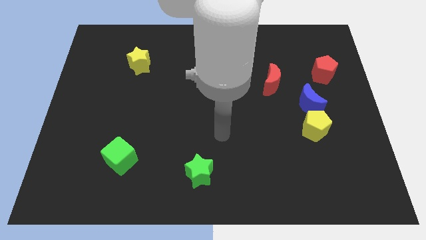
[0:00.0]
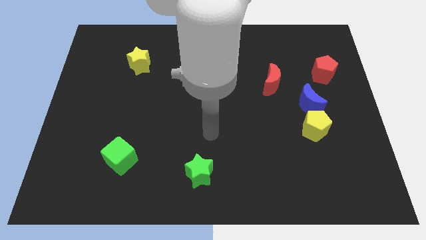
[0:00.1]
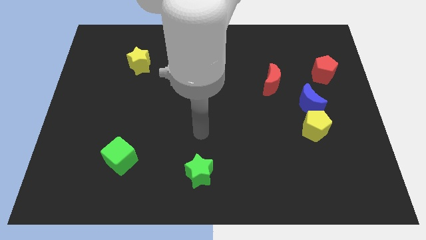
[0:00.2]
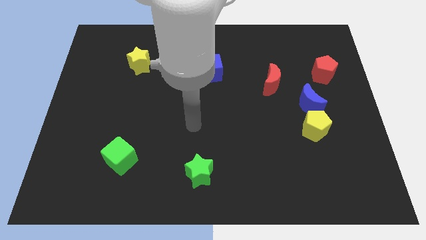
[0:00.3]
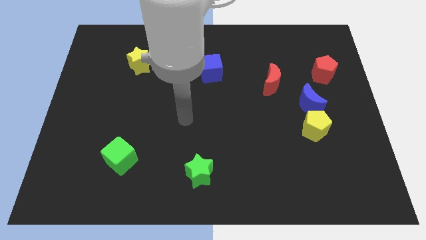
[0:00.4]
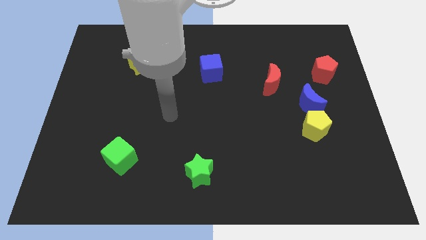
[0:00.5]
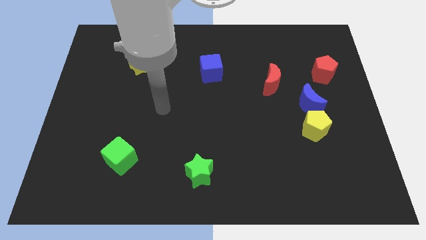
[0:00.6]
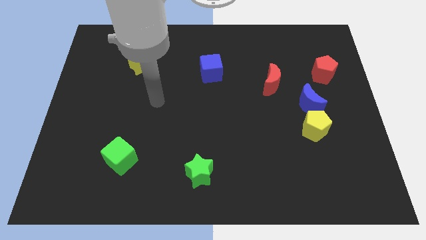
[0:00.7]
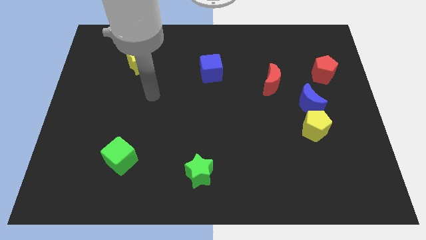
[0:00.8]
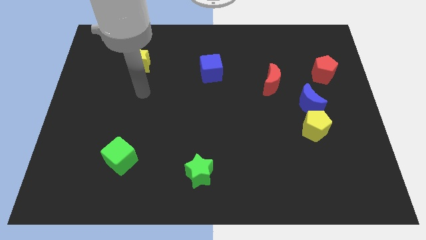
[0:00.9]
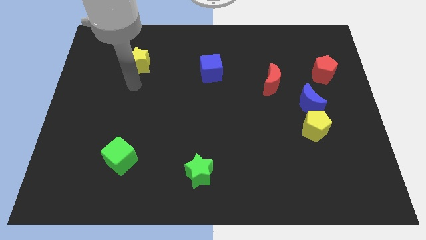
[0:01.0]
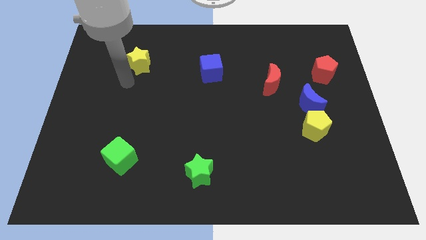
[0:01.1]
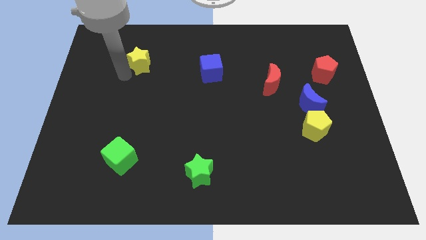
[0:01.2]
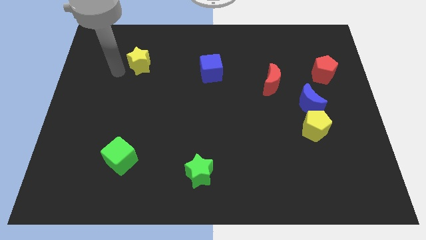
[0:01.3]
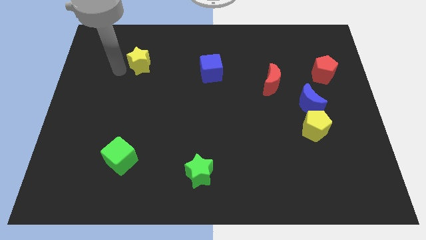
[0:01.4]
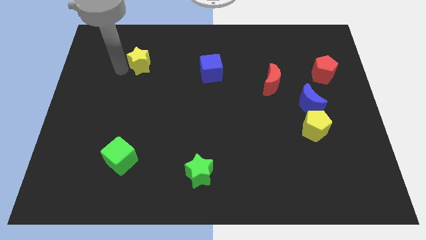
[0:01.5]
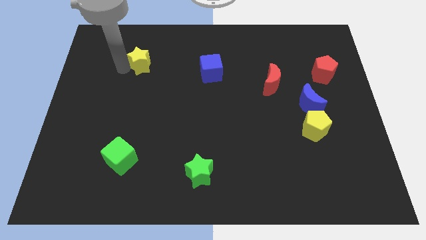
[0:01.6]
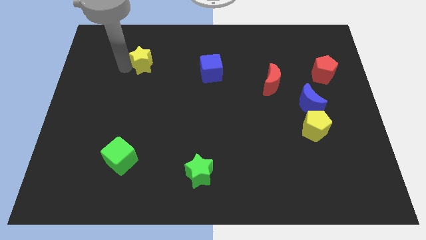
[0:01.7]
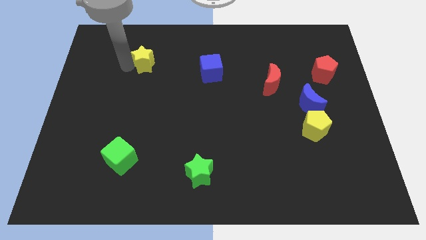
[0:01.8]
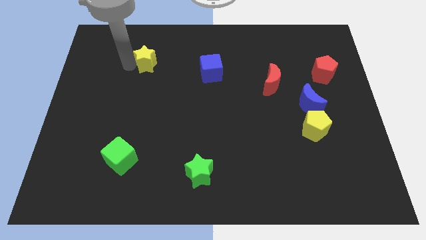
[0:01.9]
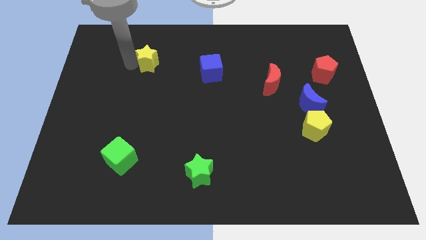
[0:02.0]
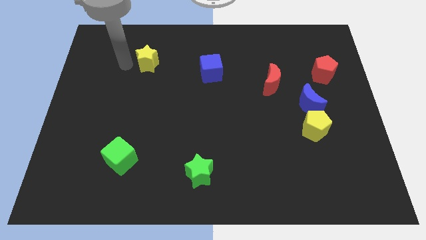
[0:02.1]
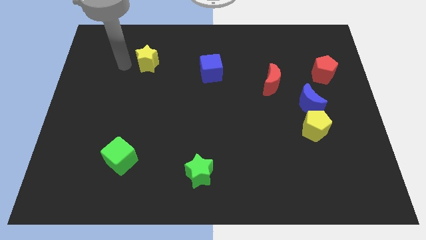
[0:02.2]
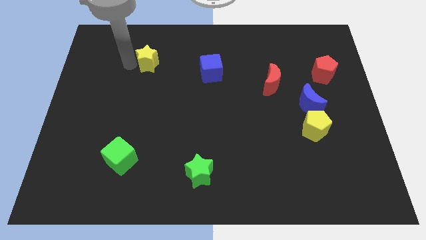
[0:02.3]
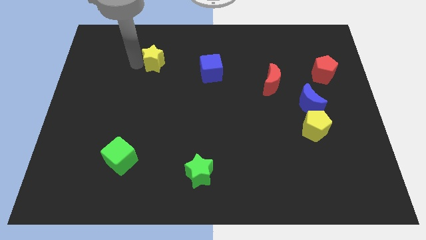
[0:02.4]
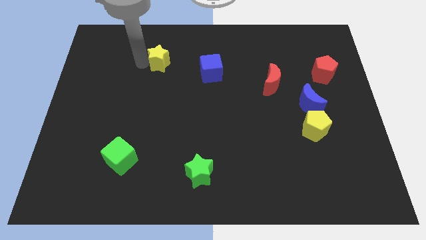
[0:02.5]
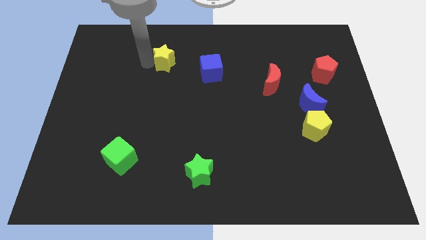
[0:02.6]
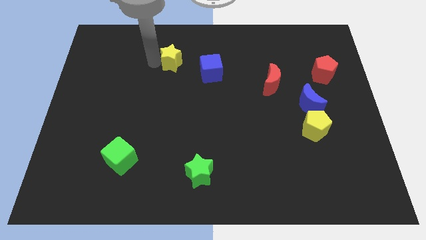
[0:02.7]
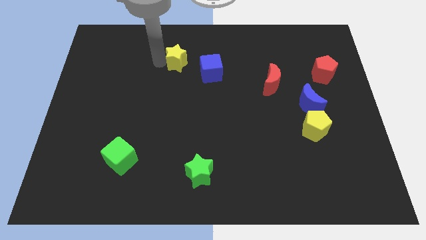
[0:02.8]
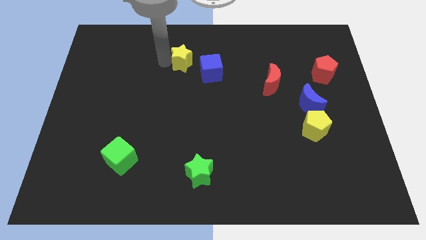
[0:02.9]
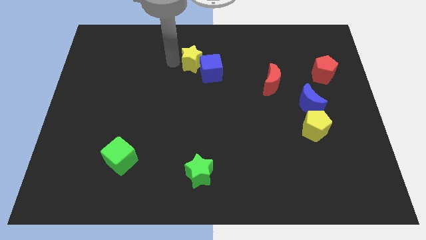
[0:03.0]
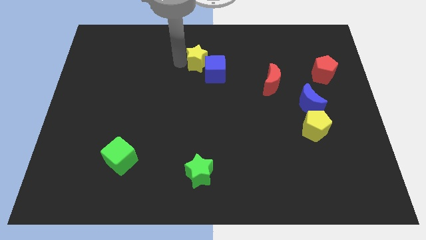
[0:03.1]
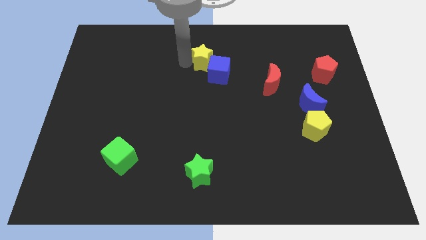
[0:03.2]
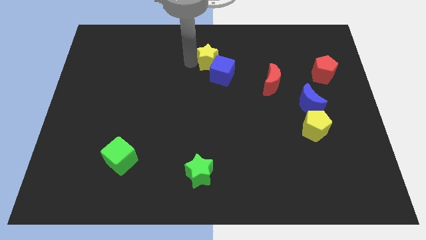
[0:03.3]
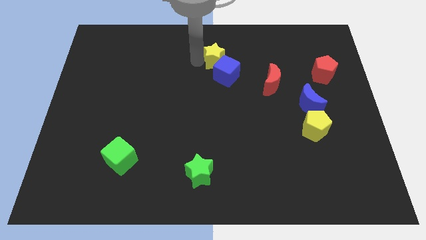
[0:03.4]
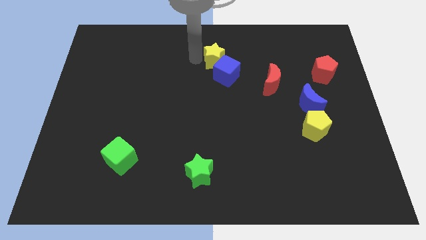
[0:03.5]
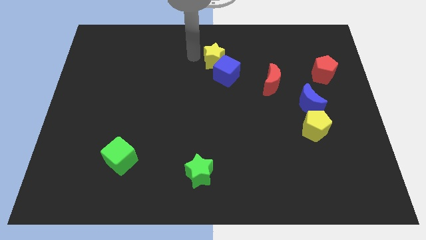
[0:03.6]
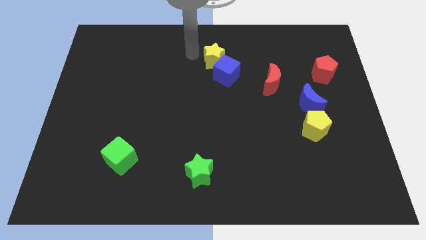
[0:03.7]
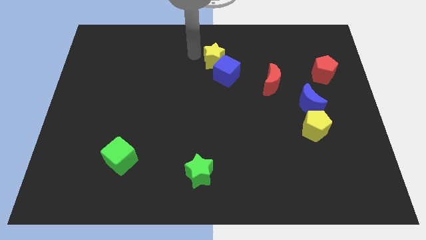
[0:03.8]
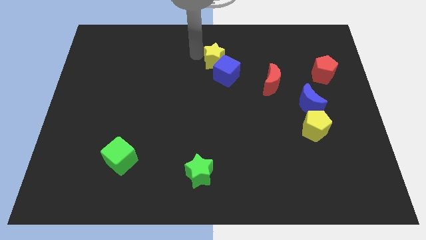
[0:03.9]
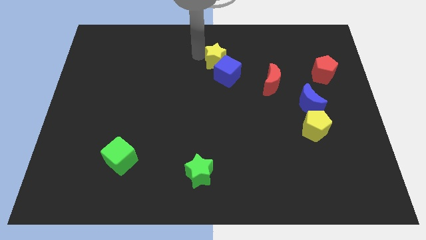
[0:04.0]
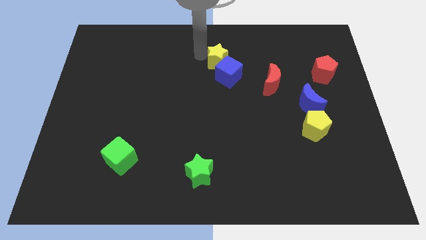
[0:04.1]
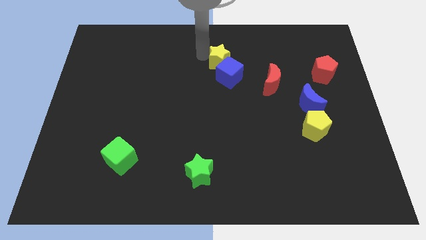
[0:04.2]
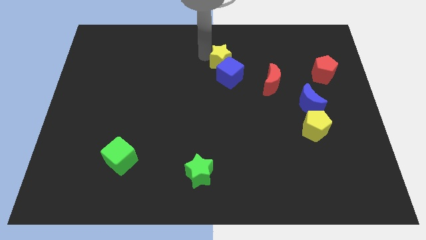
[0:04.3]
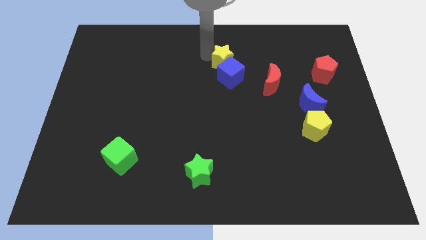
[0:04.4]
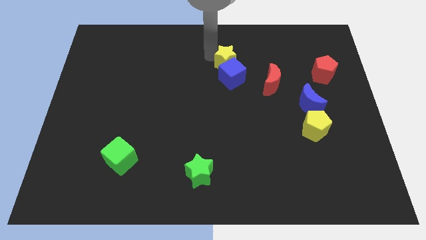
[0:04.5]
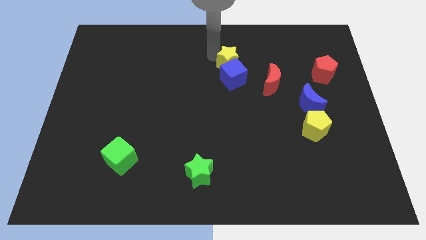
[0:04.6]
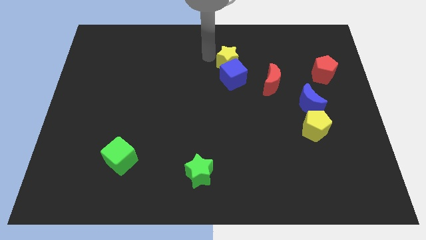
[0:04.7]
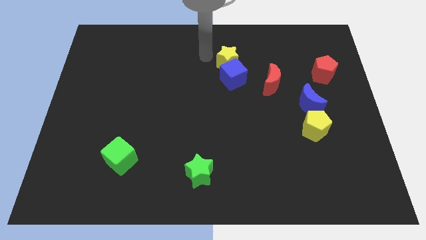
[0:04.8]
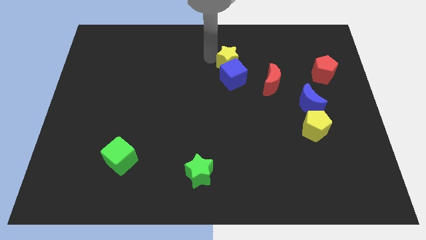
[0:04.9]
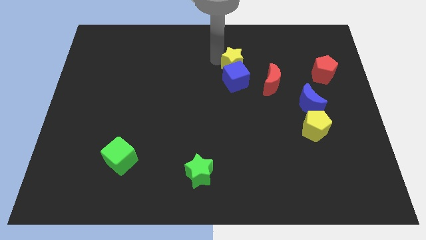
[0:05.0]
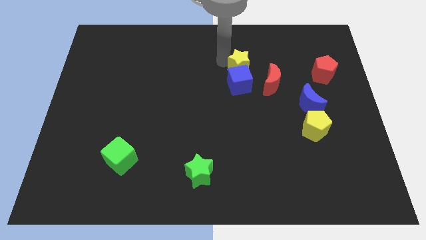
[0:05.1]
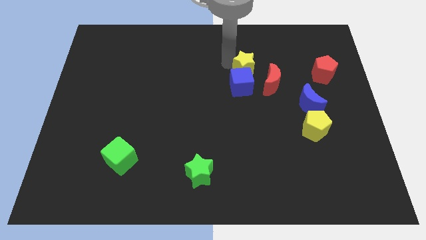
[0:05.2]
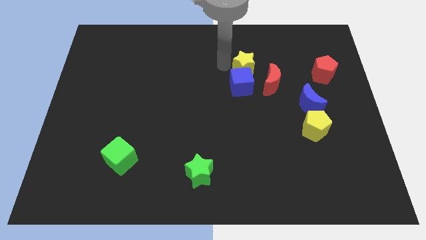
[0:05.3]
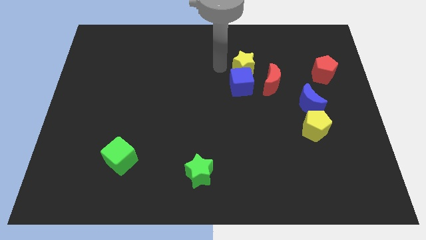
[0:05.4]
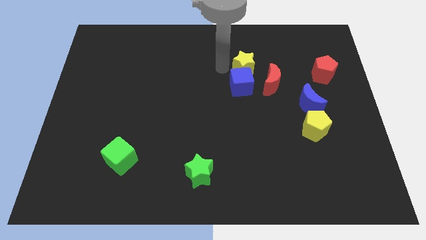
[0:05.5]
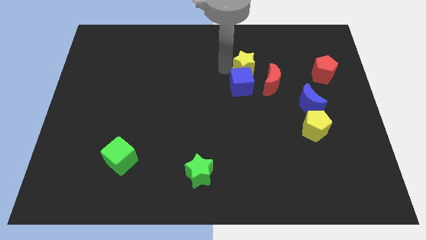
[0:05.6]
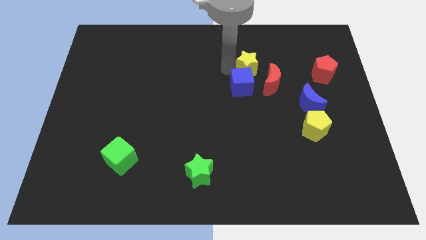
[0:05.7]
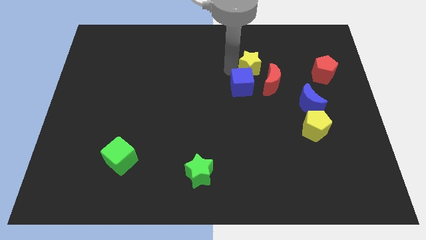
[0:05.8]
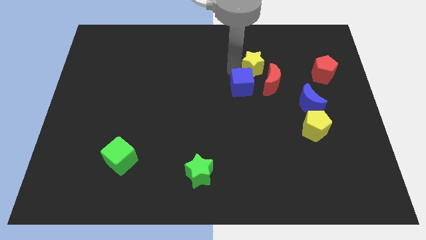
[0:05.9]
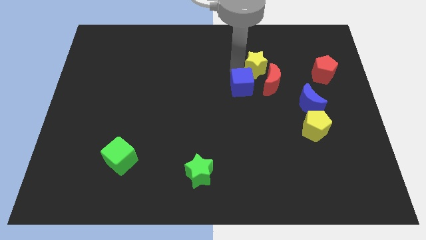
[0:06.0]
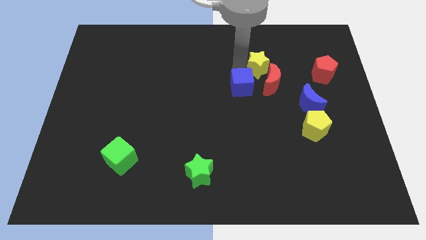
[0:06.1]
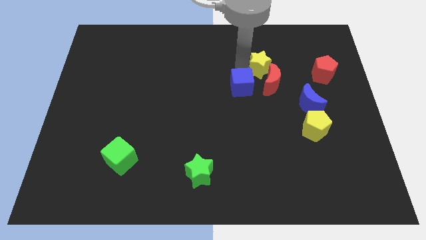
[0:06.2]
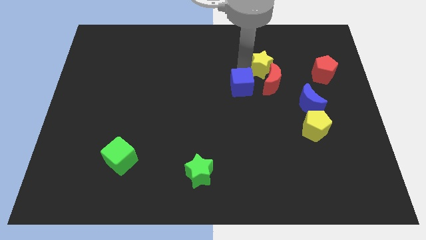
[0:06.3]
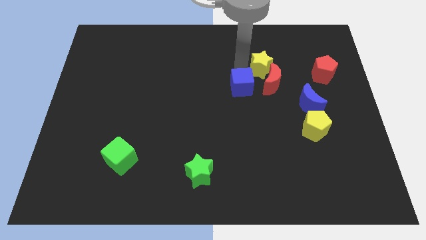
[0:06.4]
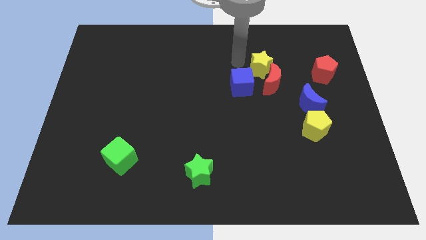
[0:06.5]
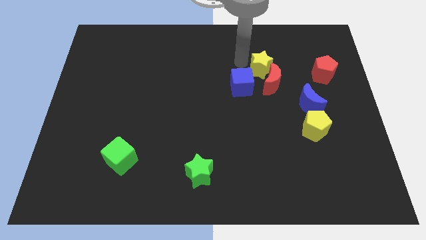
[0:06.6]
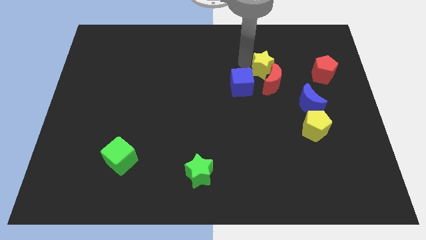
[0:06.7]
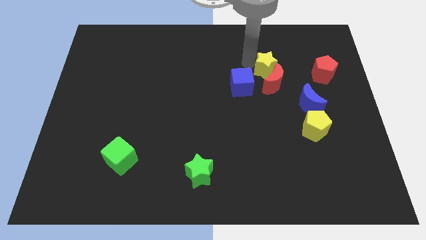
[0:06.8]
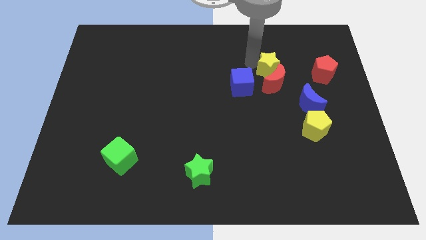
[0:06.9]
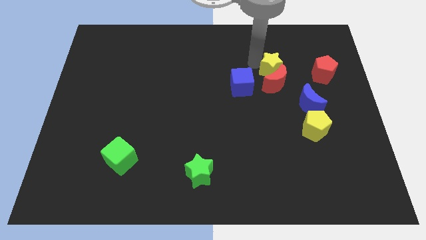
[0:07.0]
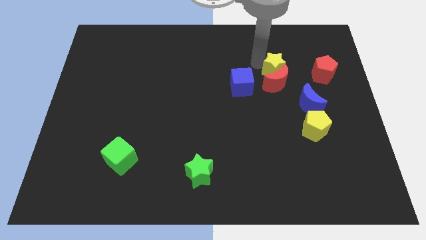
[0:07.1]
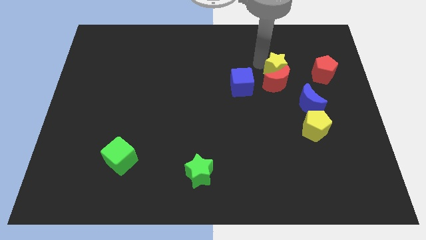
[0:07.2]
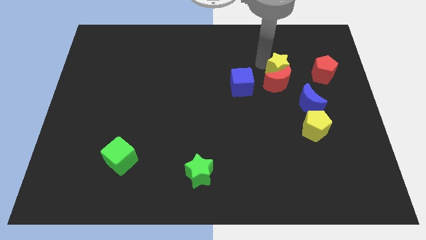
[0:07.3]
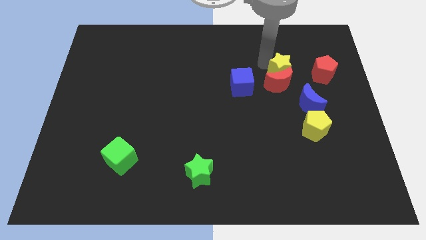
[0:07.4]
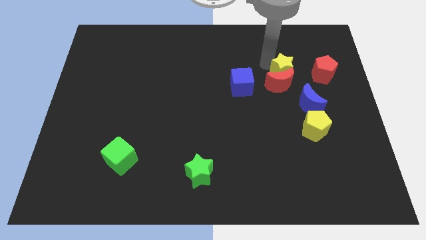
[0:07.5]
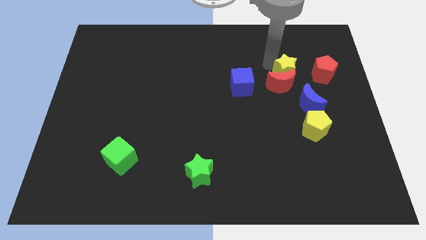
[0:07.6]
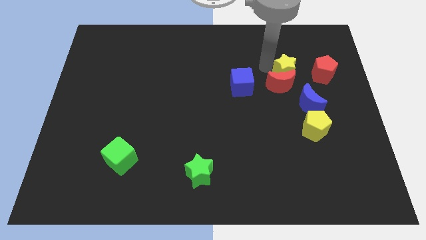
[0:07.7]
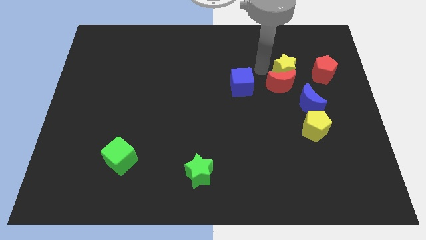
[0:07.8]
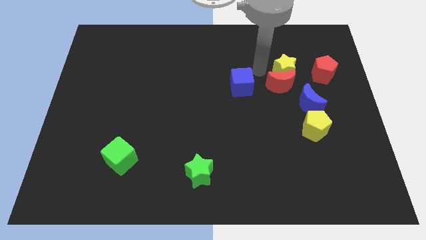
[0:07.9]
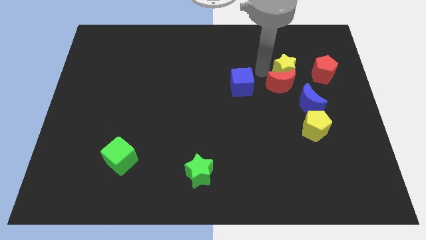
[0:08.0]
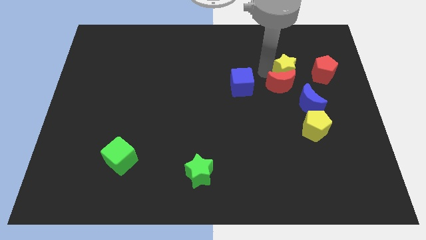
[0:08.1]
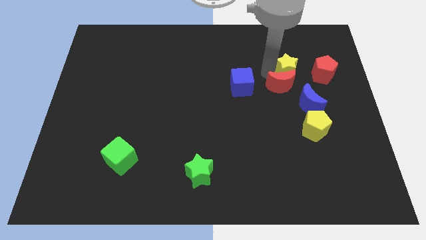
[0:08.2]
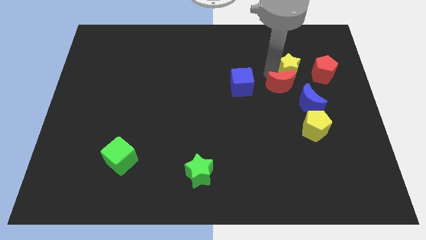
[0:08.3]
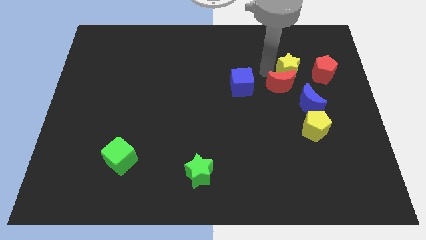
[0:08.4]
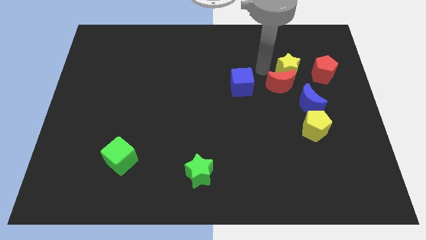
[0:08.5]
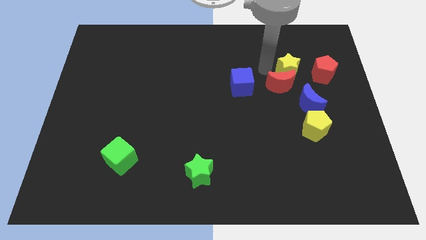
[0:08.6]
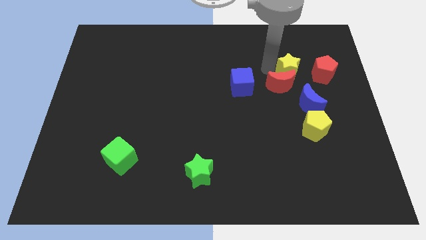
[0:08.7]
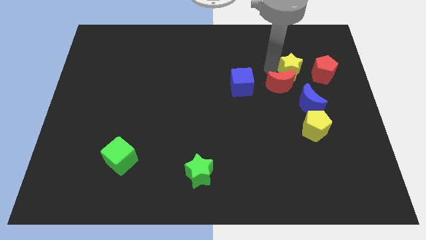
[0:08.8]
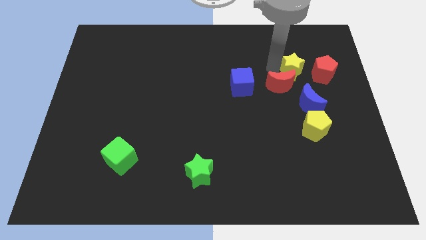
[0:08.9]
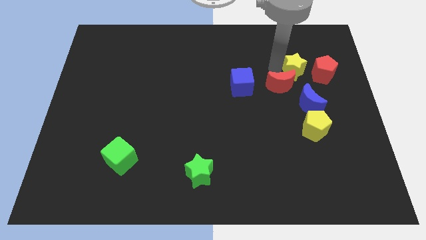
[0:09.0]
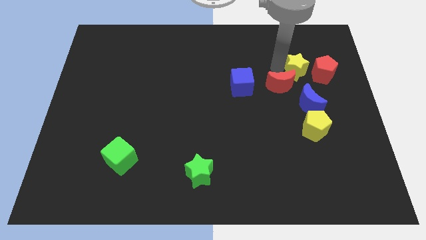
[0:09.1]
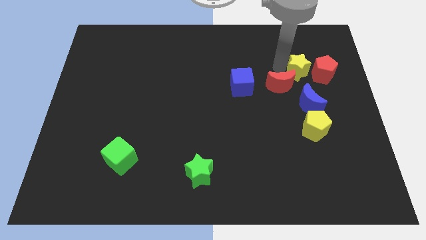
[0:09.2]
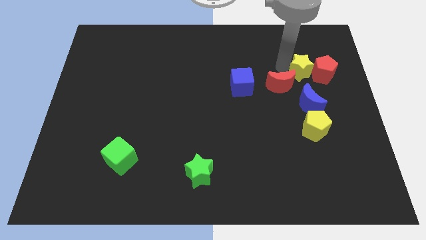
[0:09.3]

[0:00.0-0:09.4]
slide the yellow star next to the red pentagon
